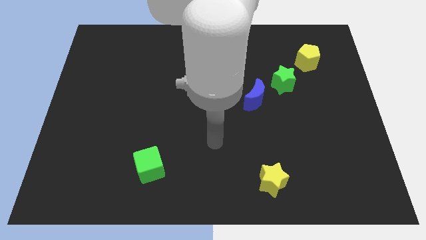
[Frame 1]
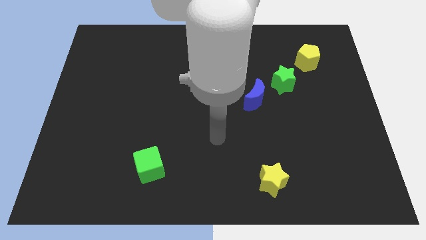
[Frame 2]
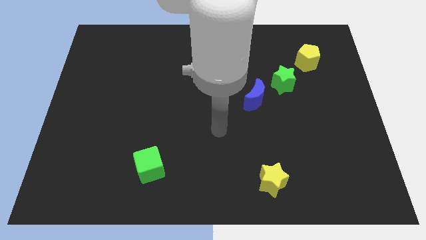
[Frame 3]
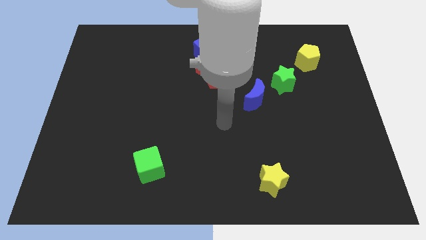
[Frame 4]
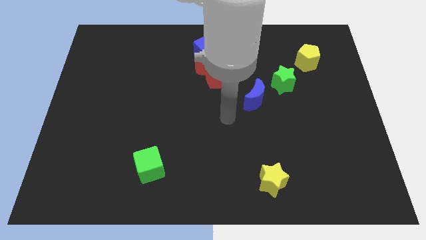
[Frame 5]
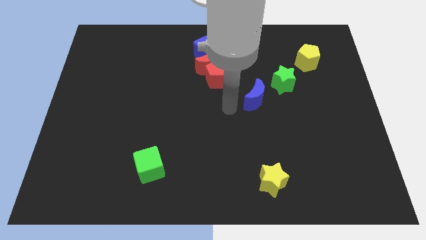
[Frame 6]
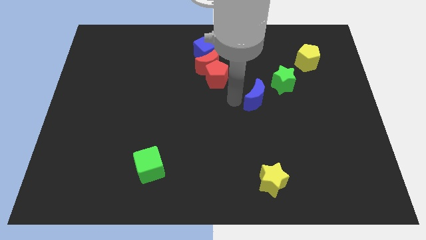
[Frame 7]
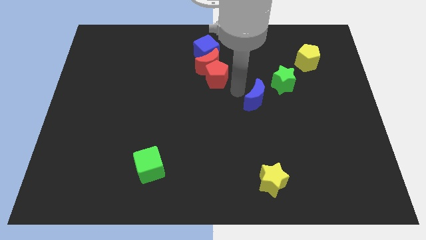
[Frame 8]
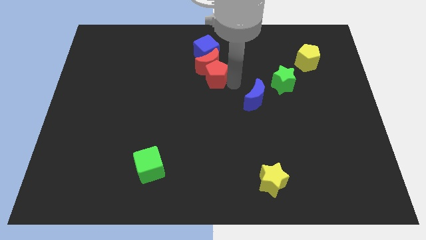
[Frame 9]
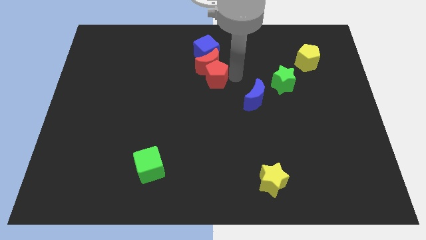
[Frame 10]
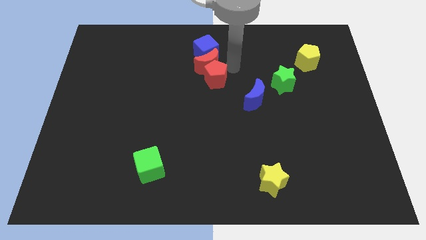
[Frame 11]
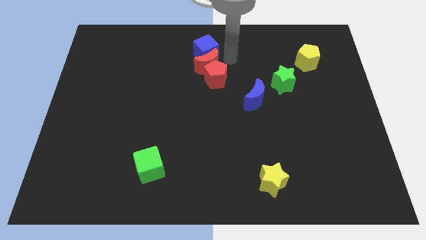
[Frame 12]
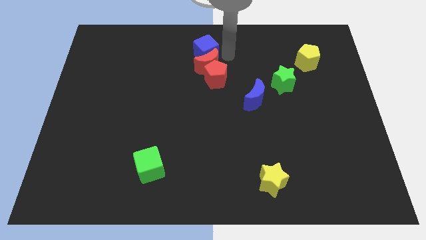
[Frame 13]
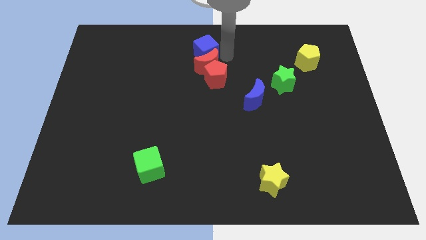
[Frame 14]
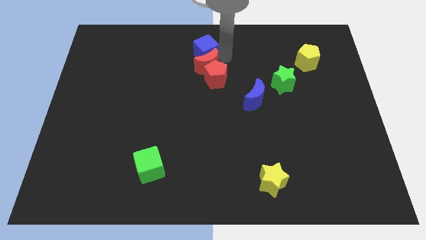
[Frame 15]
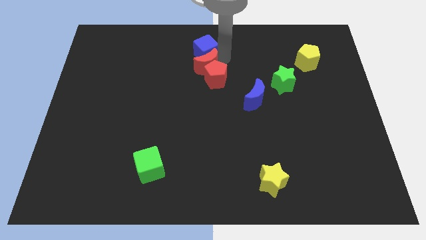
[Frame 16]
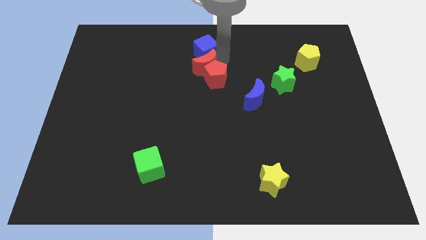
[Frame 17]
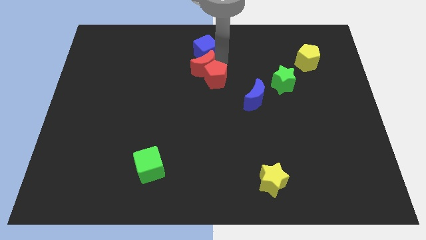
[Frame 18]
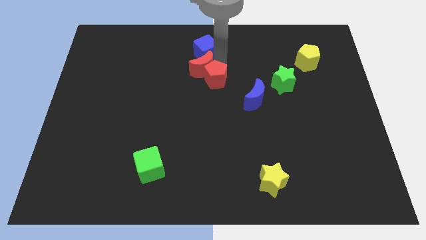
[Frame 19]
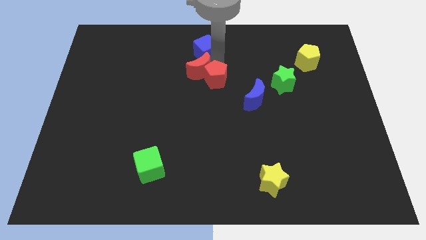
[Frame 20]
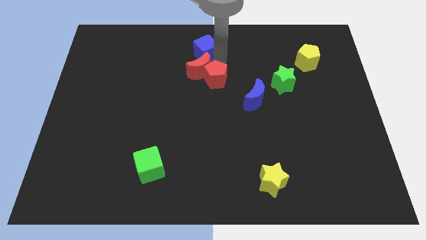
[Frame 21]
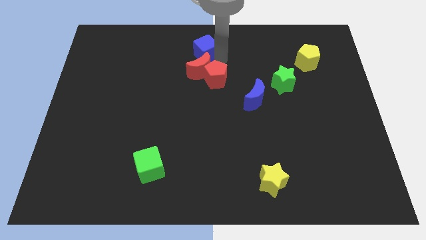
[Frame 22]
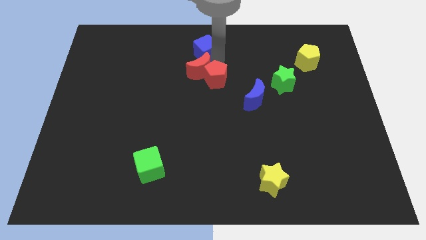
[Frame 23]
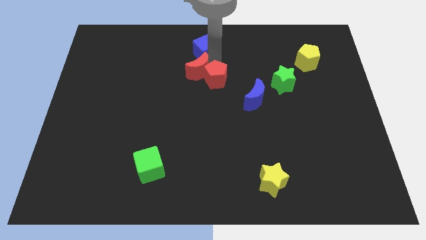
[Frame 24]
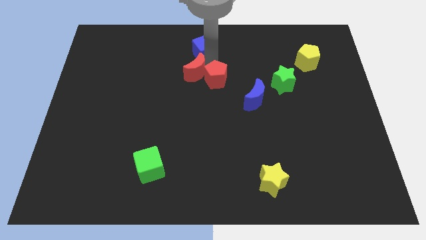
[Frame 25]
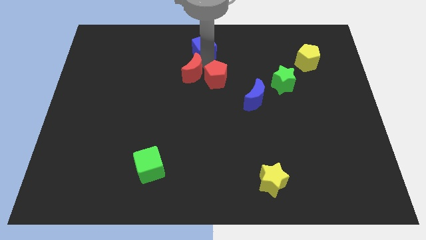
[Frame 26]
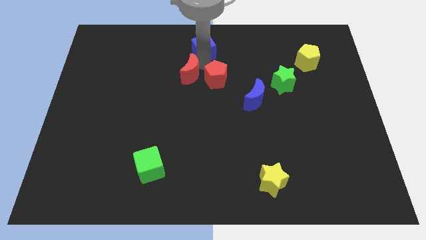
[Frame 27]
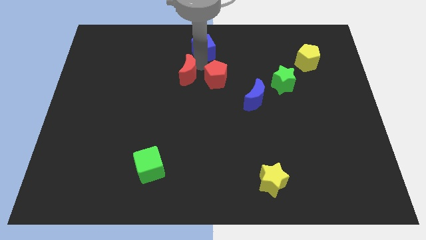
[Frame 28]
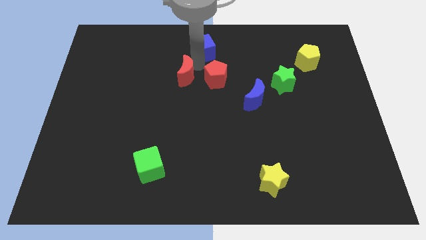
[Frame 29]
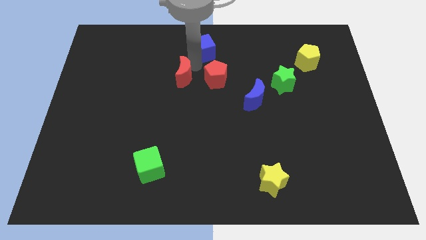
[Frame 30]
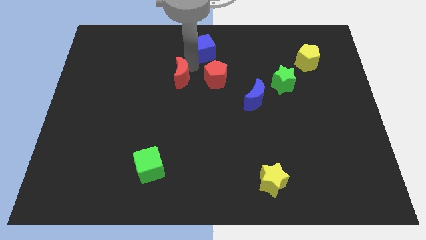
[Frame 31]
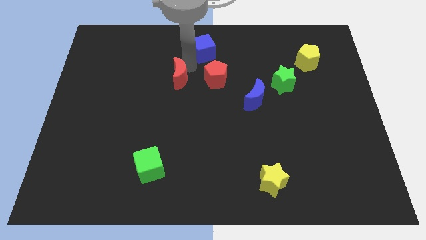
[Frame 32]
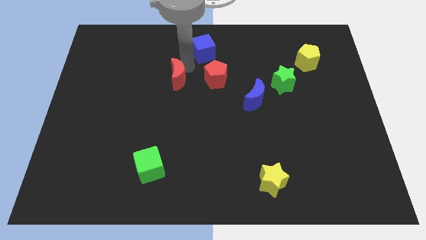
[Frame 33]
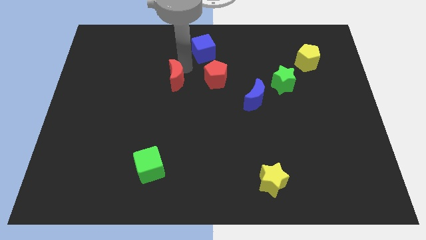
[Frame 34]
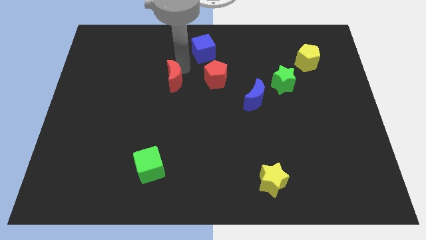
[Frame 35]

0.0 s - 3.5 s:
pull the red moon apart from the red pentagon and blue cube

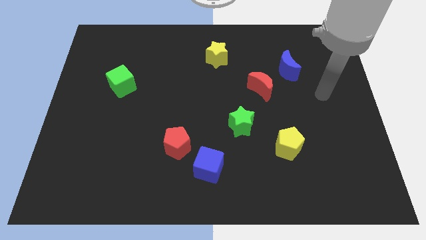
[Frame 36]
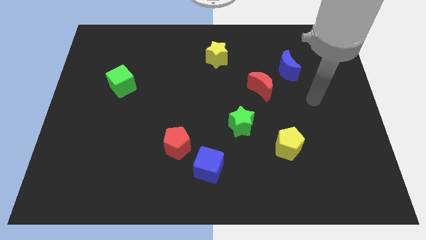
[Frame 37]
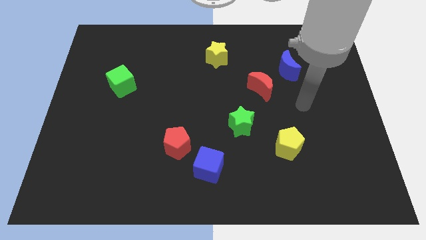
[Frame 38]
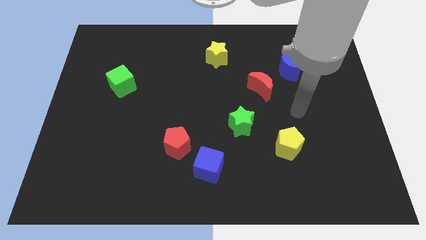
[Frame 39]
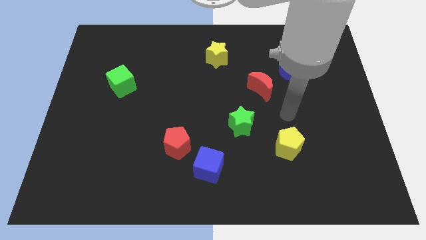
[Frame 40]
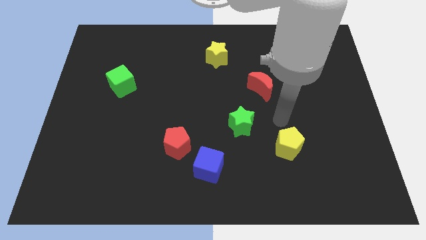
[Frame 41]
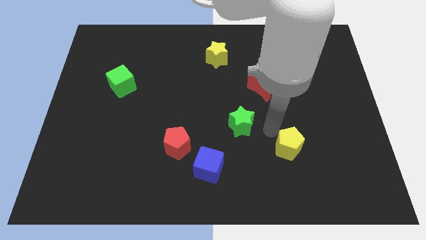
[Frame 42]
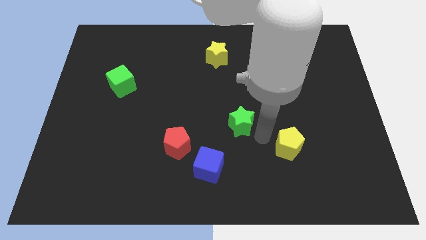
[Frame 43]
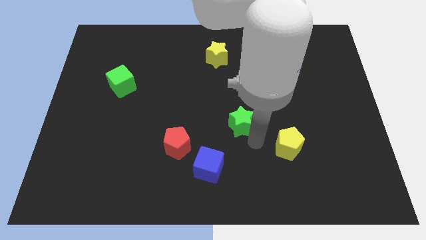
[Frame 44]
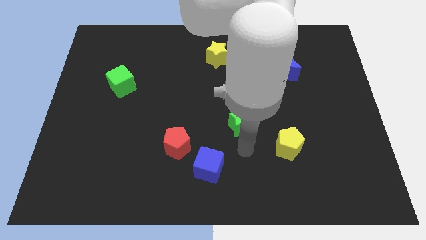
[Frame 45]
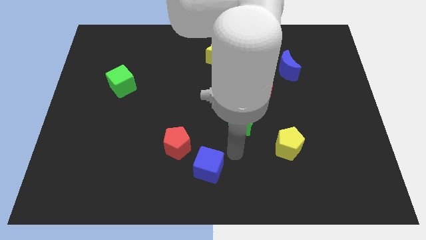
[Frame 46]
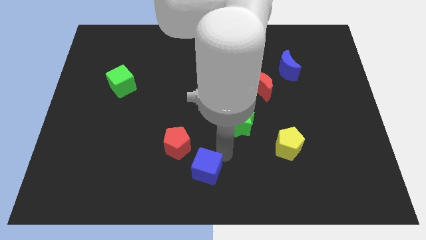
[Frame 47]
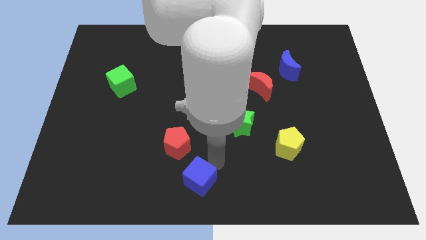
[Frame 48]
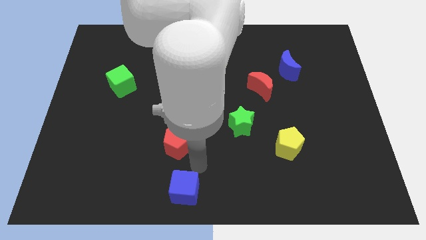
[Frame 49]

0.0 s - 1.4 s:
move the red pentagon away from the blue cube

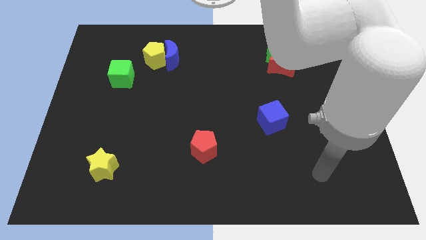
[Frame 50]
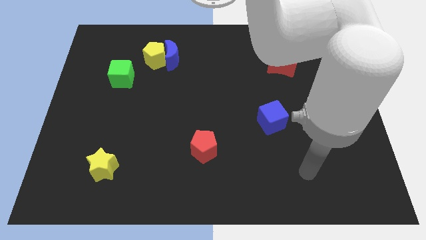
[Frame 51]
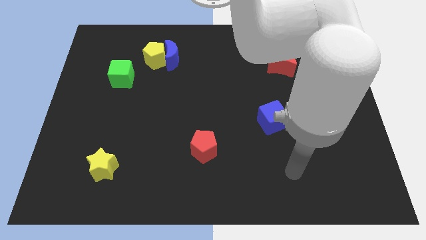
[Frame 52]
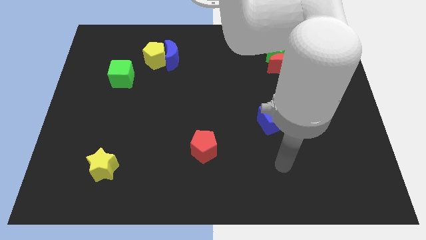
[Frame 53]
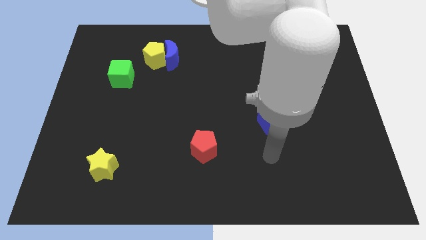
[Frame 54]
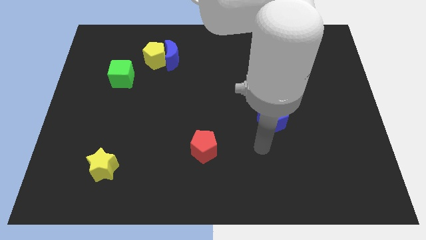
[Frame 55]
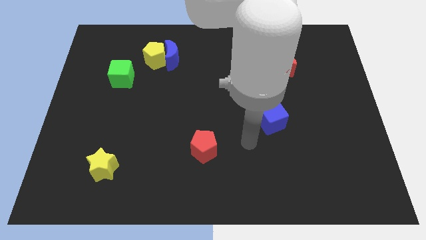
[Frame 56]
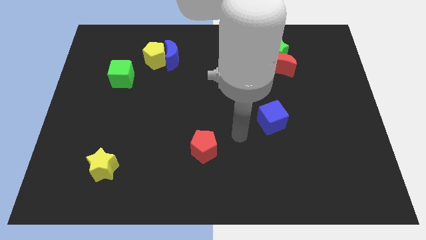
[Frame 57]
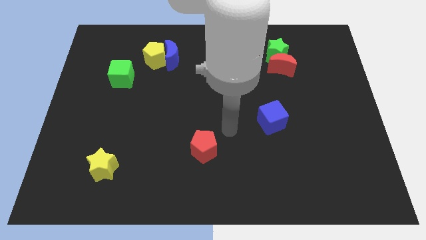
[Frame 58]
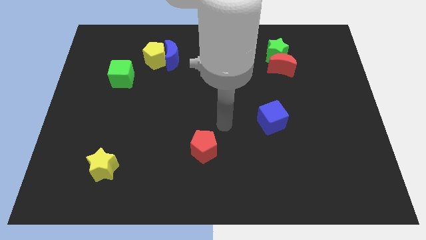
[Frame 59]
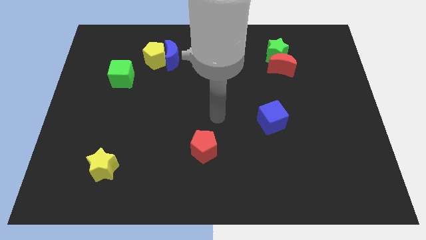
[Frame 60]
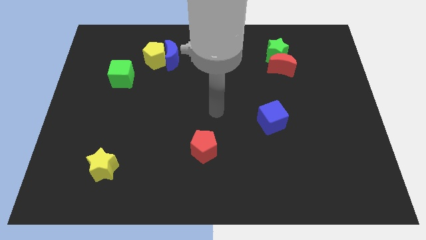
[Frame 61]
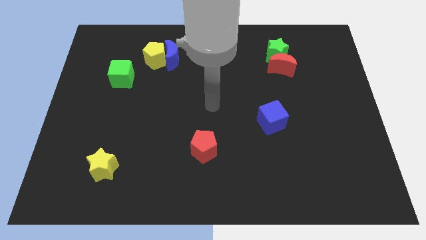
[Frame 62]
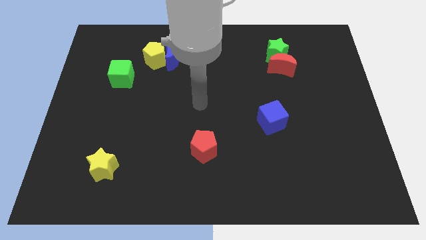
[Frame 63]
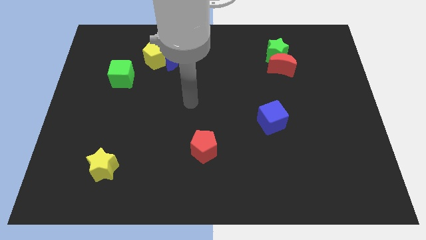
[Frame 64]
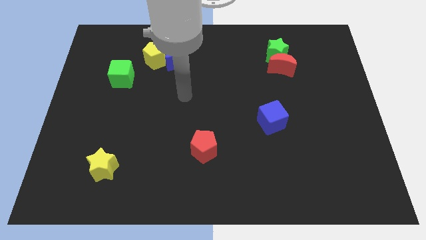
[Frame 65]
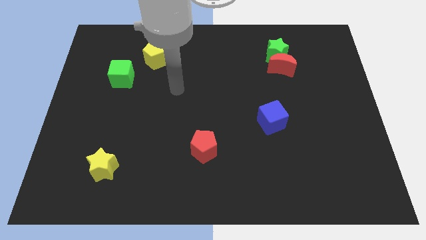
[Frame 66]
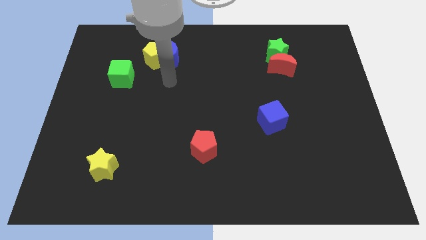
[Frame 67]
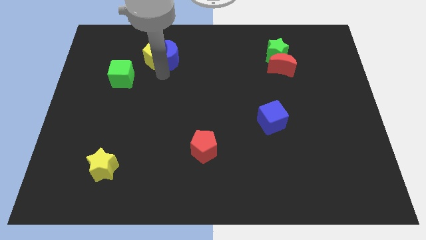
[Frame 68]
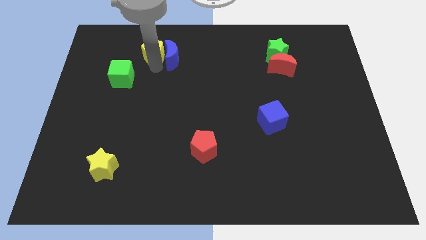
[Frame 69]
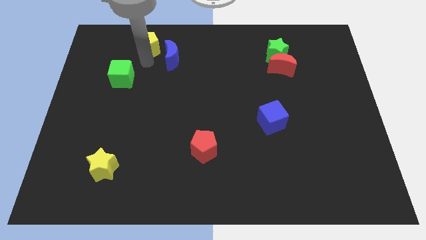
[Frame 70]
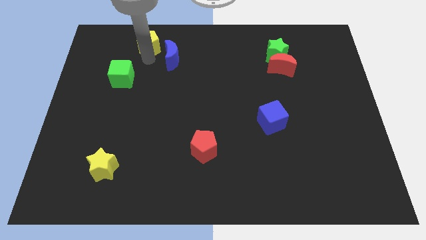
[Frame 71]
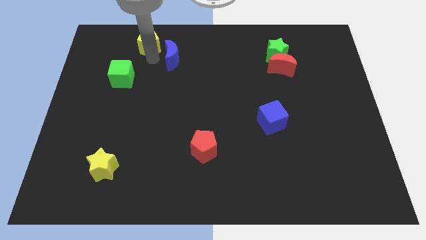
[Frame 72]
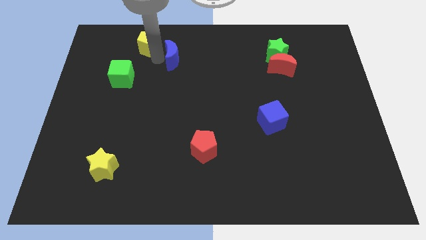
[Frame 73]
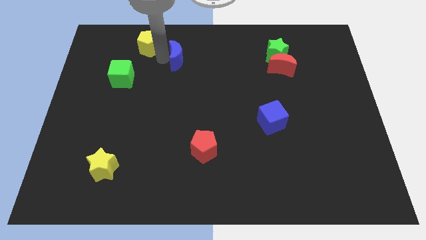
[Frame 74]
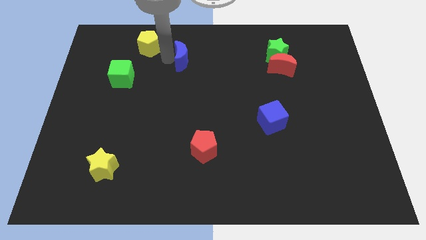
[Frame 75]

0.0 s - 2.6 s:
move the blue moon away from the yellow pentagon

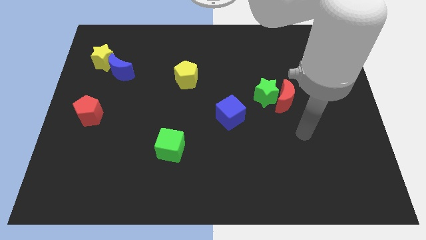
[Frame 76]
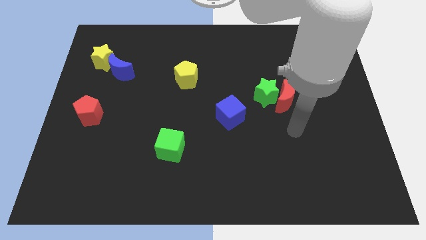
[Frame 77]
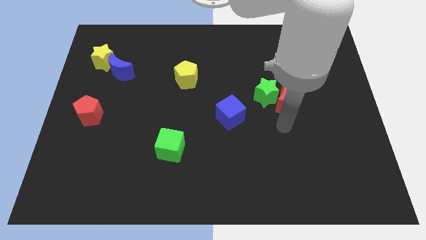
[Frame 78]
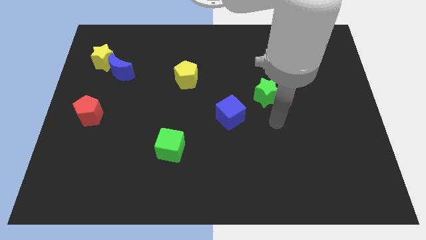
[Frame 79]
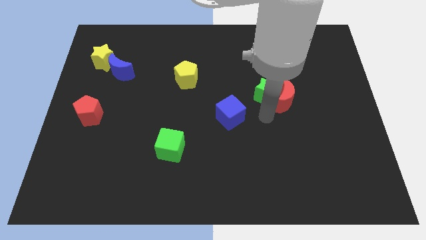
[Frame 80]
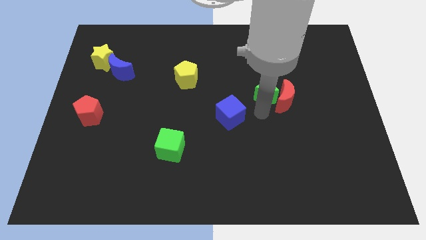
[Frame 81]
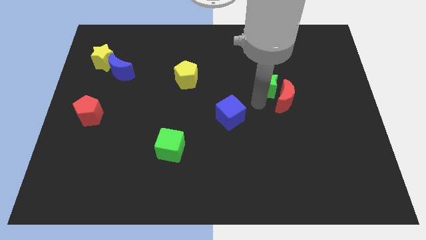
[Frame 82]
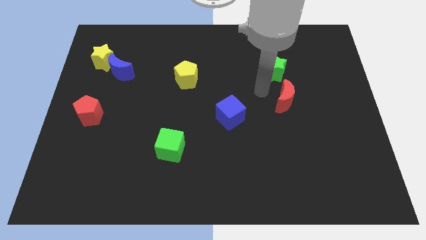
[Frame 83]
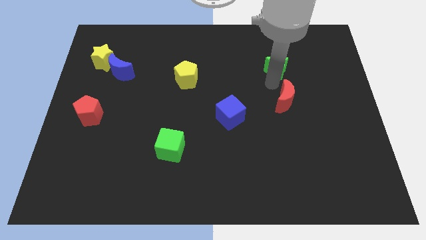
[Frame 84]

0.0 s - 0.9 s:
move the red moon away from the green star

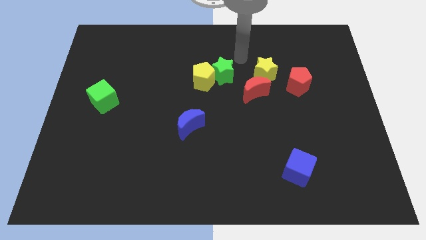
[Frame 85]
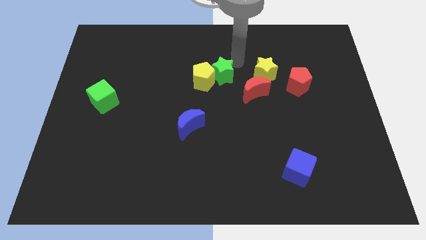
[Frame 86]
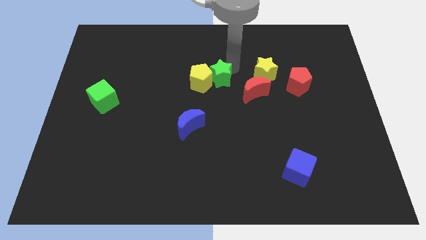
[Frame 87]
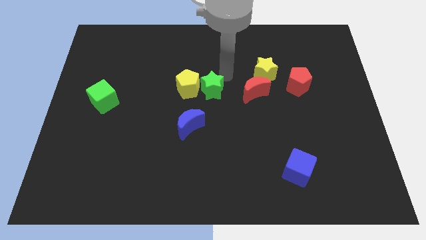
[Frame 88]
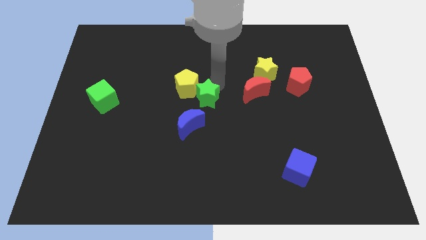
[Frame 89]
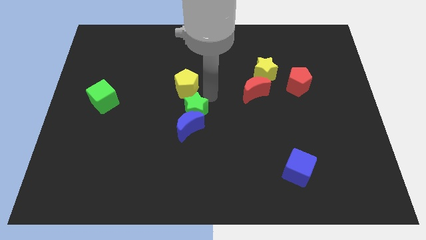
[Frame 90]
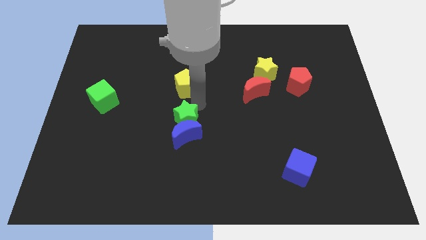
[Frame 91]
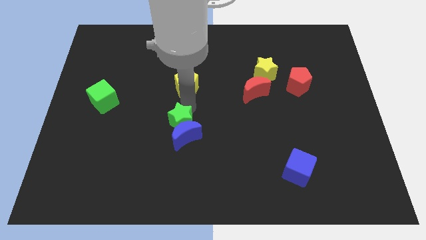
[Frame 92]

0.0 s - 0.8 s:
move the yellow pentagon away from the green star
